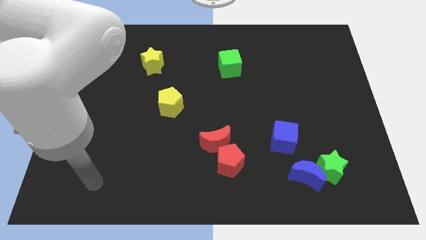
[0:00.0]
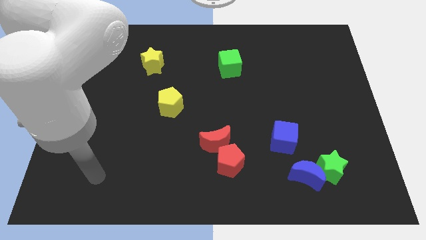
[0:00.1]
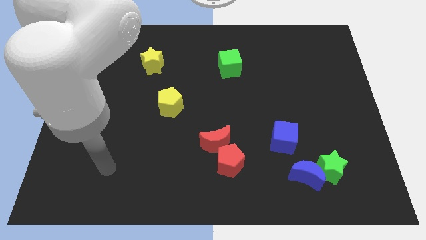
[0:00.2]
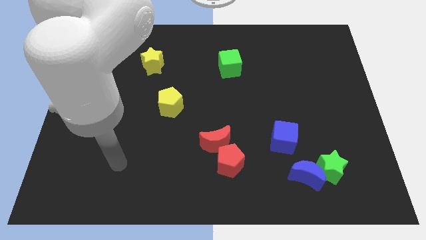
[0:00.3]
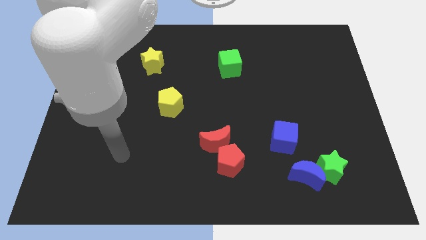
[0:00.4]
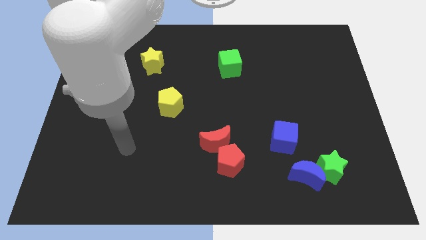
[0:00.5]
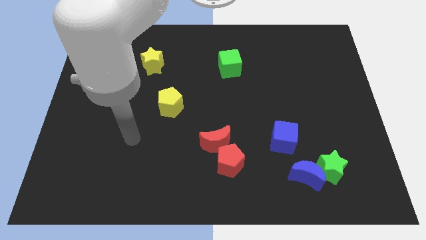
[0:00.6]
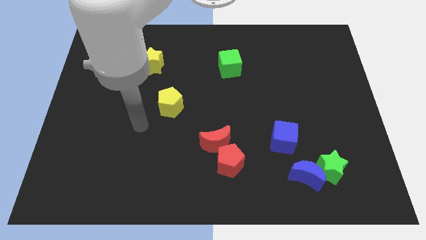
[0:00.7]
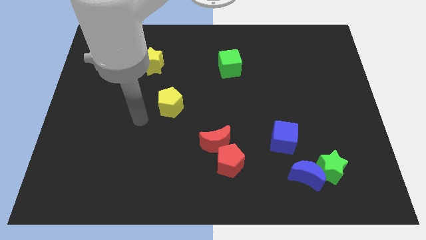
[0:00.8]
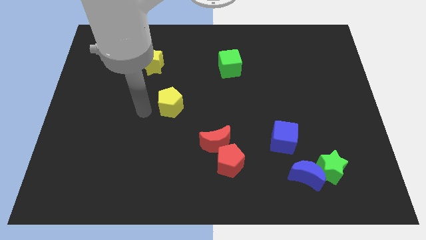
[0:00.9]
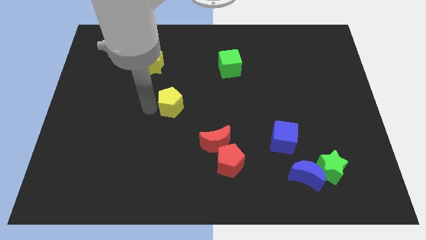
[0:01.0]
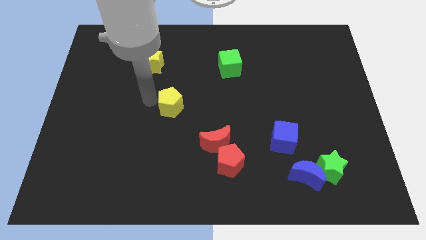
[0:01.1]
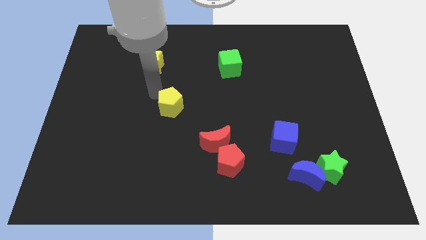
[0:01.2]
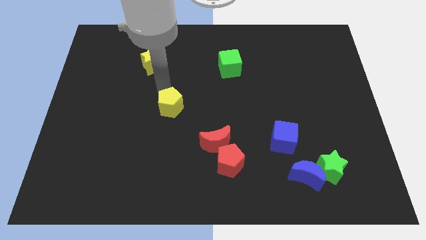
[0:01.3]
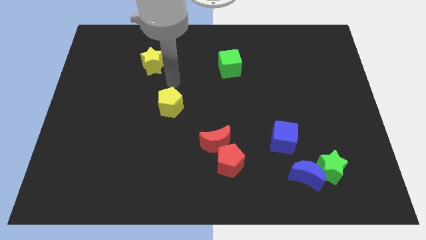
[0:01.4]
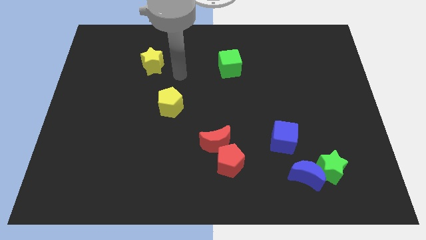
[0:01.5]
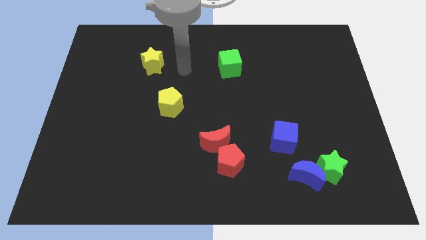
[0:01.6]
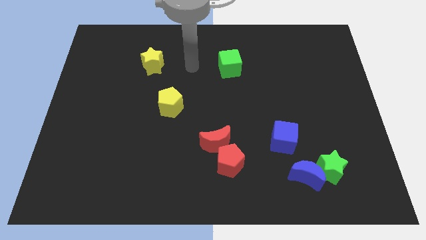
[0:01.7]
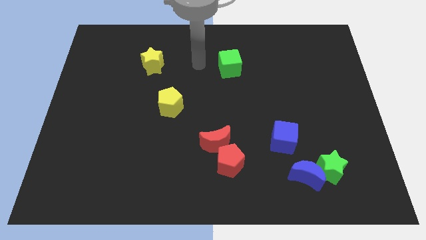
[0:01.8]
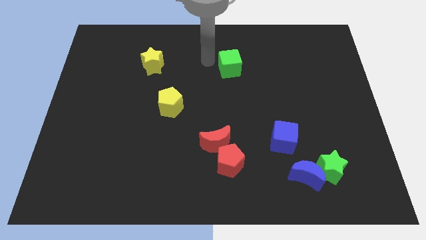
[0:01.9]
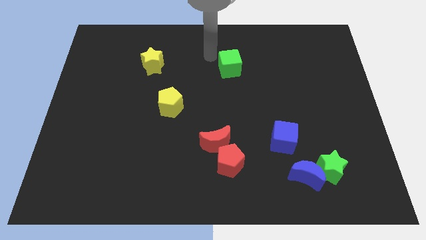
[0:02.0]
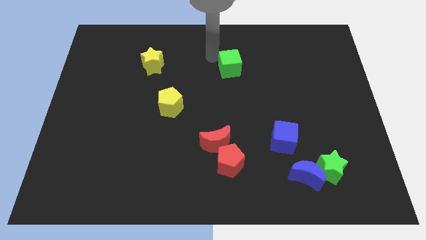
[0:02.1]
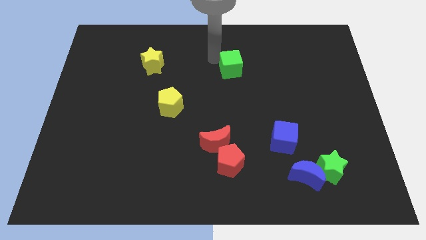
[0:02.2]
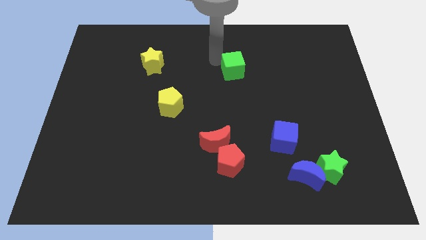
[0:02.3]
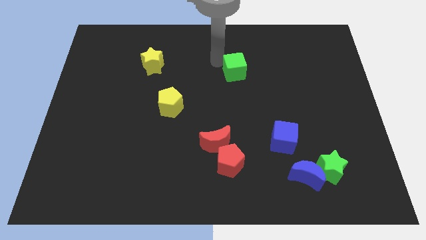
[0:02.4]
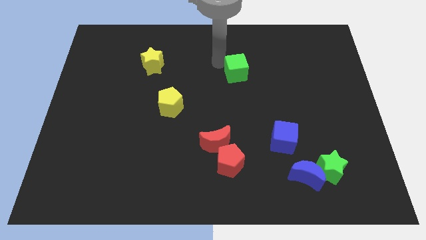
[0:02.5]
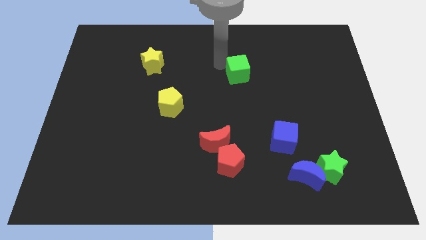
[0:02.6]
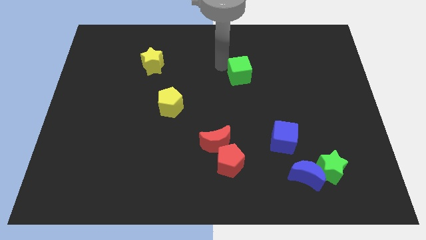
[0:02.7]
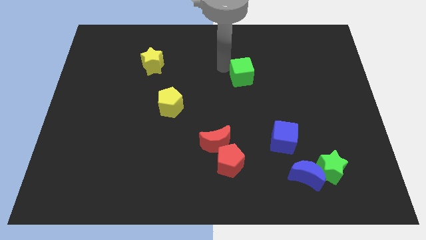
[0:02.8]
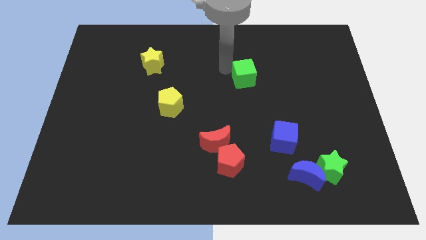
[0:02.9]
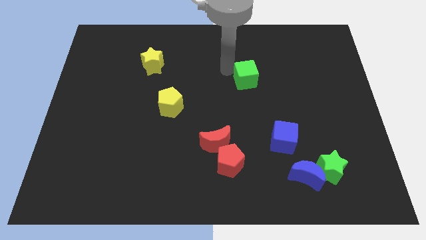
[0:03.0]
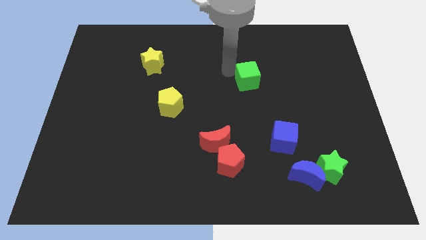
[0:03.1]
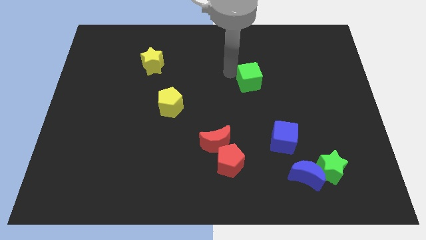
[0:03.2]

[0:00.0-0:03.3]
move the green cube down and then right a little

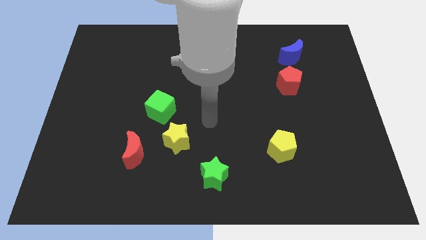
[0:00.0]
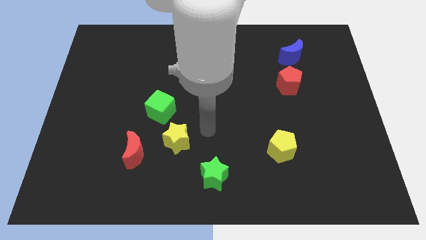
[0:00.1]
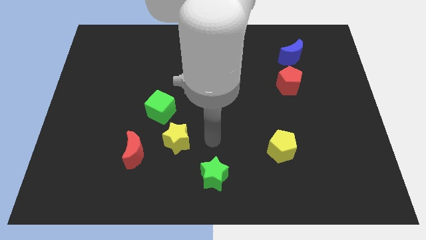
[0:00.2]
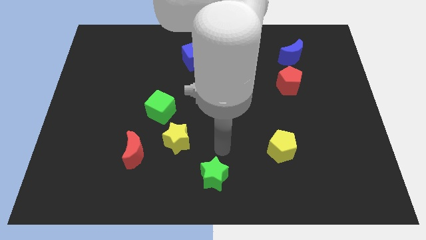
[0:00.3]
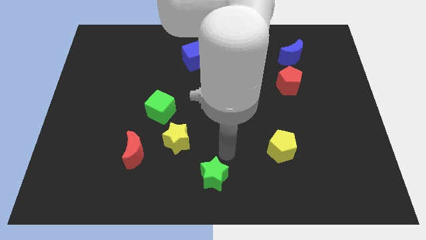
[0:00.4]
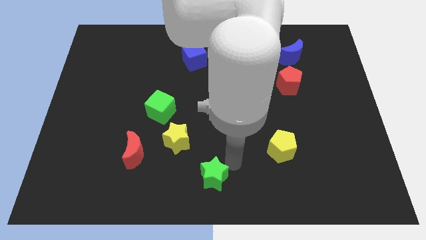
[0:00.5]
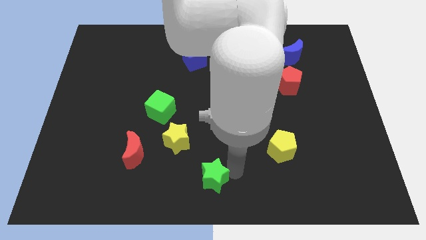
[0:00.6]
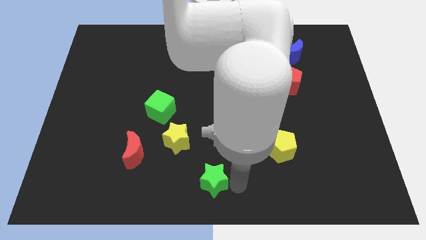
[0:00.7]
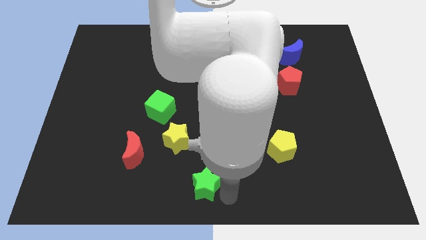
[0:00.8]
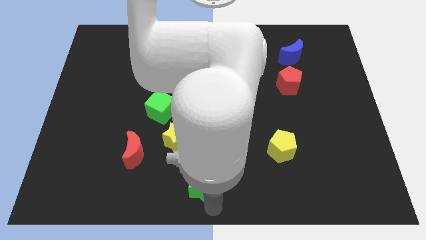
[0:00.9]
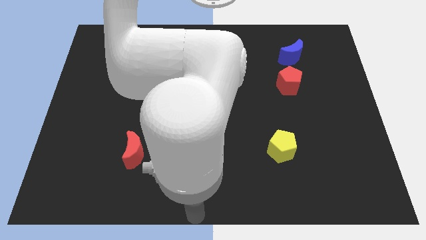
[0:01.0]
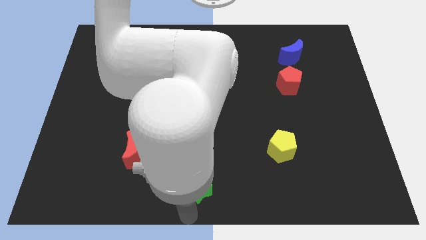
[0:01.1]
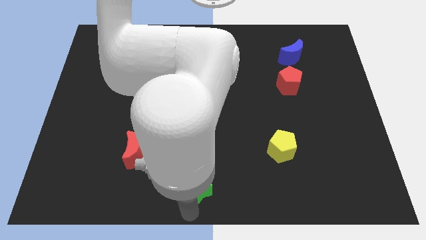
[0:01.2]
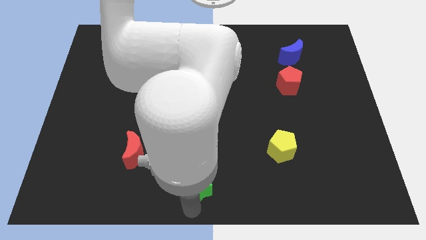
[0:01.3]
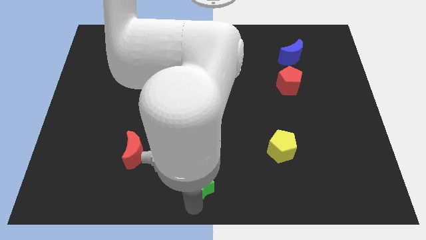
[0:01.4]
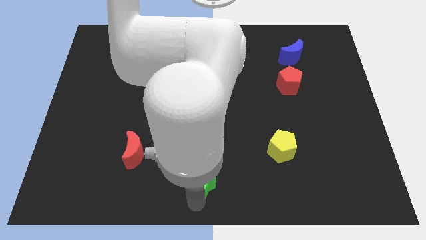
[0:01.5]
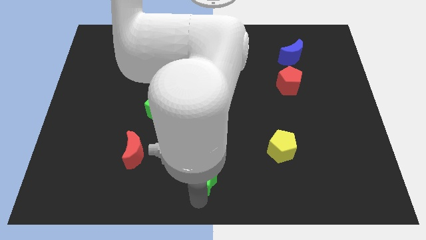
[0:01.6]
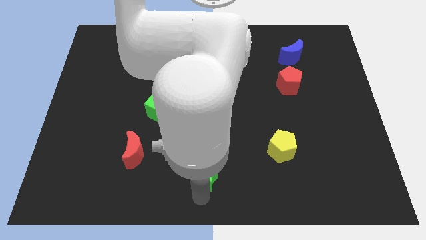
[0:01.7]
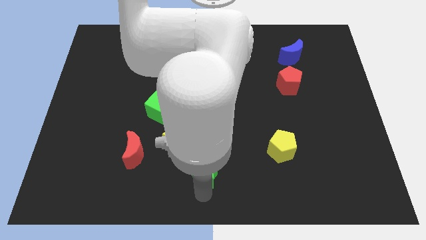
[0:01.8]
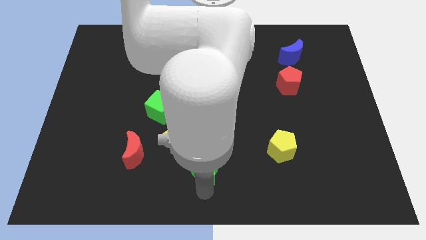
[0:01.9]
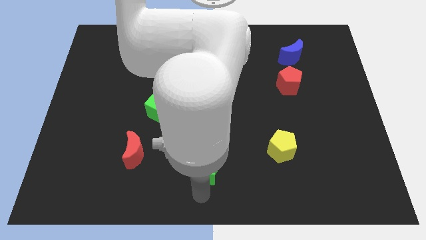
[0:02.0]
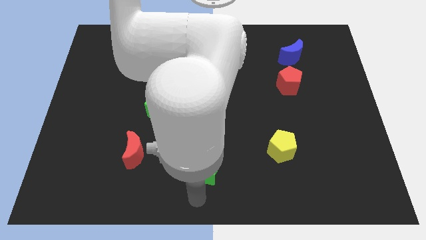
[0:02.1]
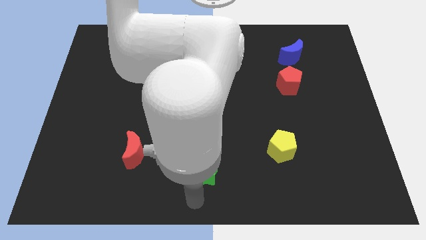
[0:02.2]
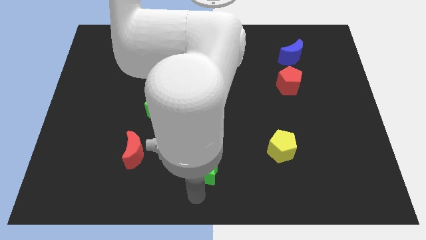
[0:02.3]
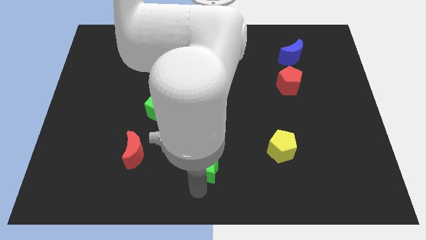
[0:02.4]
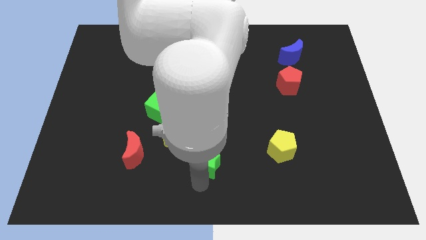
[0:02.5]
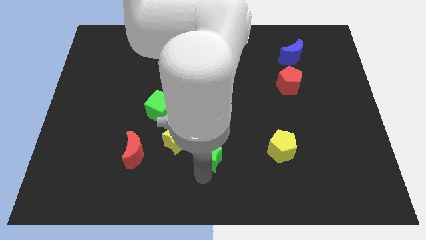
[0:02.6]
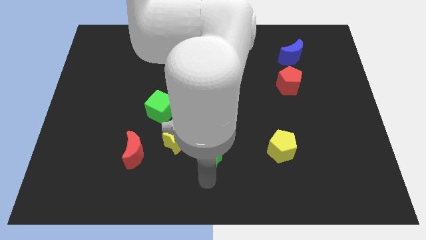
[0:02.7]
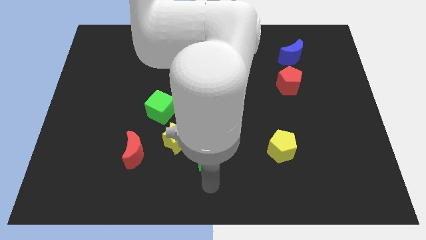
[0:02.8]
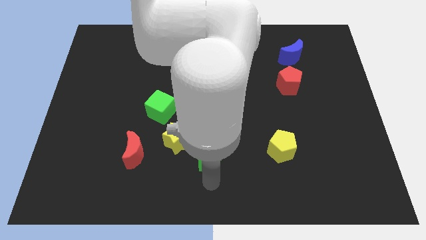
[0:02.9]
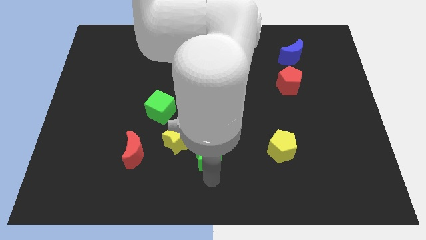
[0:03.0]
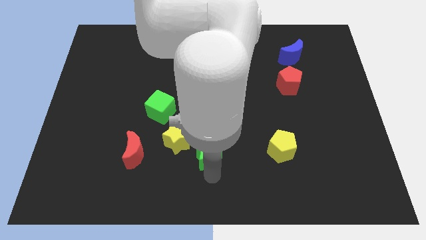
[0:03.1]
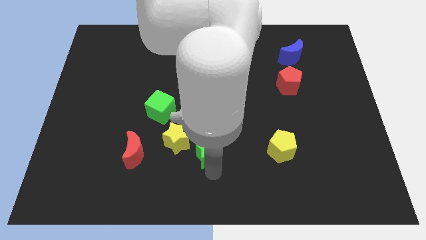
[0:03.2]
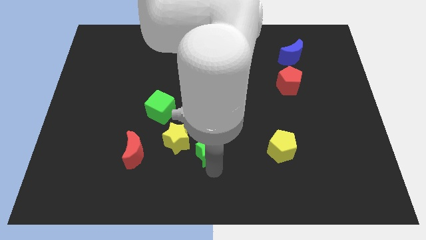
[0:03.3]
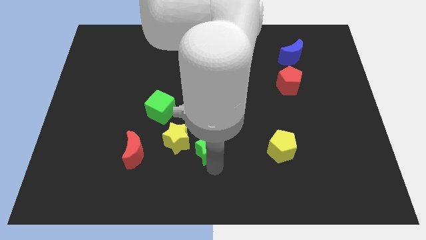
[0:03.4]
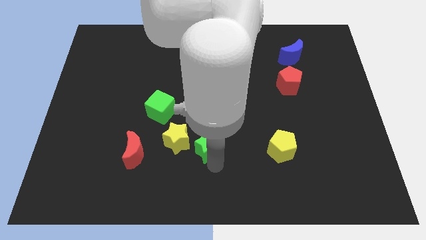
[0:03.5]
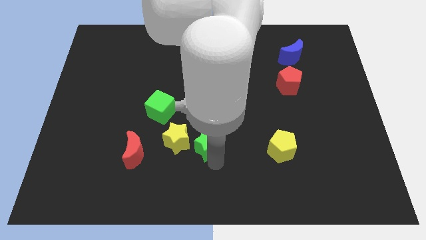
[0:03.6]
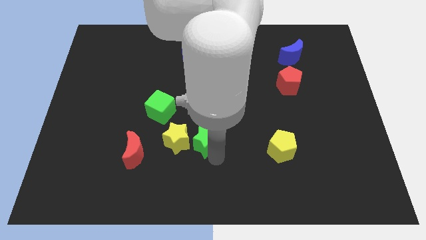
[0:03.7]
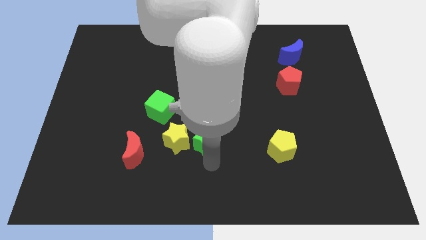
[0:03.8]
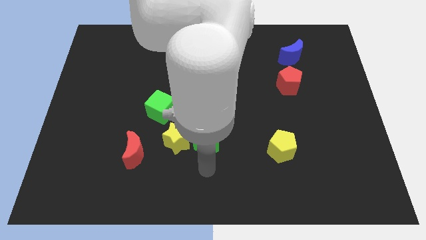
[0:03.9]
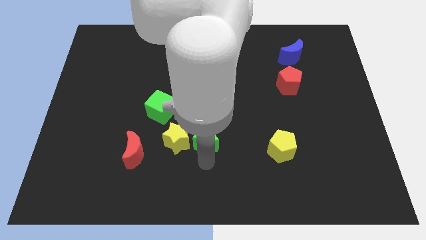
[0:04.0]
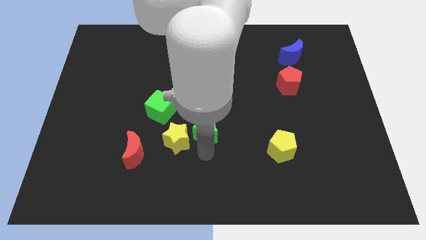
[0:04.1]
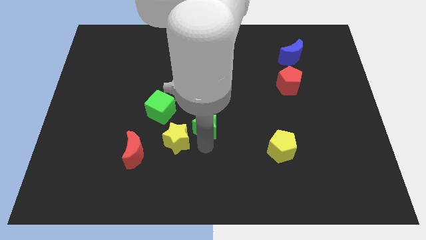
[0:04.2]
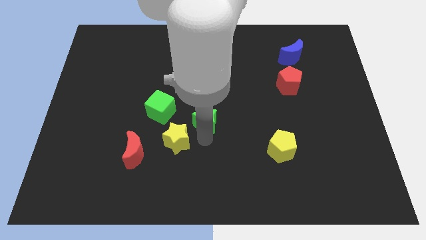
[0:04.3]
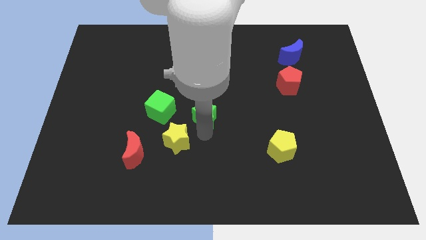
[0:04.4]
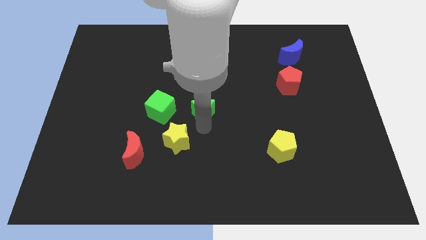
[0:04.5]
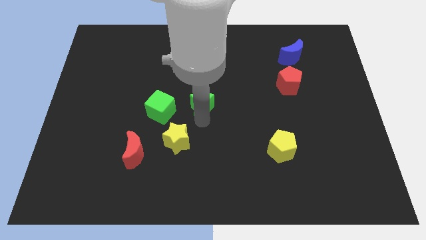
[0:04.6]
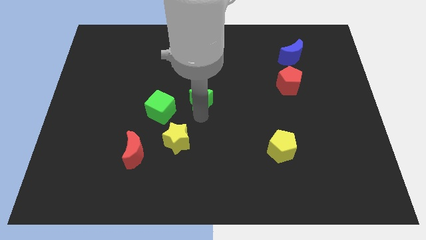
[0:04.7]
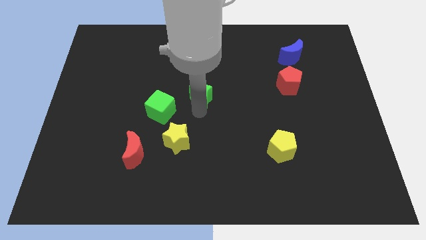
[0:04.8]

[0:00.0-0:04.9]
slide the green star up
